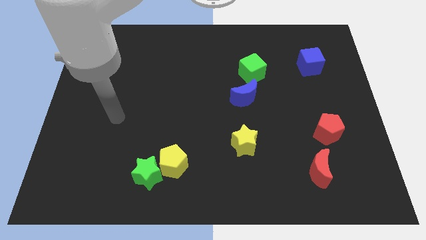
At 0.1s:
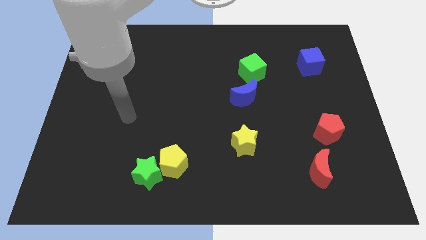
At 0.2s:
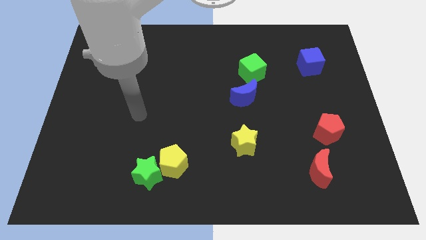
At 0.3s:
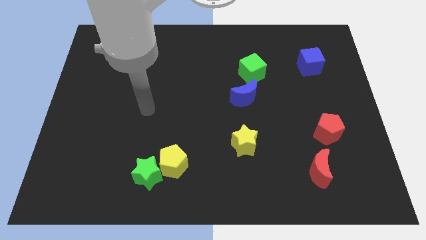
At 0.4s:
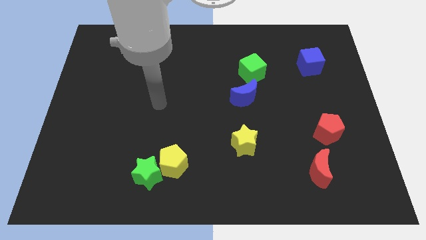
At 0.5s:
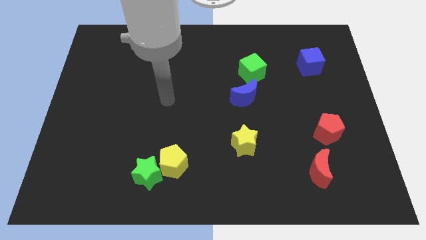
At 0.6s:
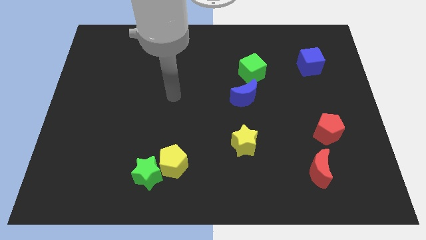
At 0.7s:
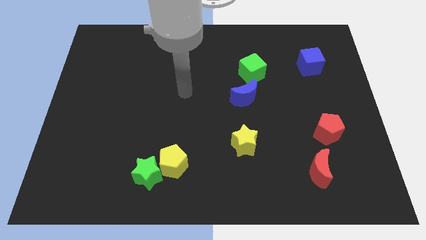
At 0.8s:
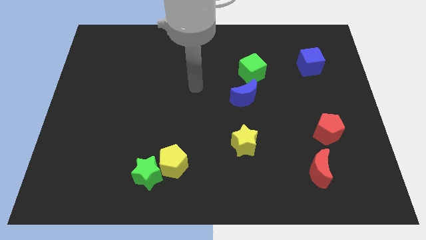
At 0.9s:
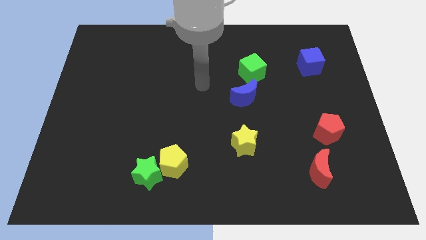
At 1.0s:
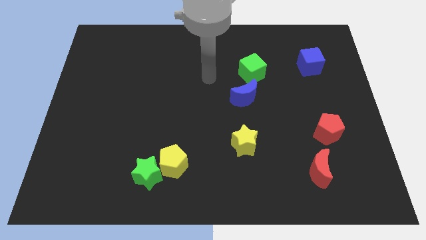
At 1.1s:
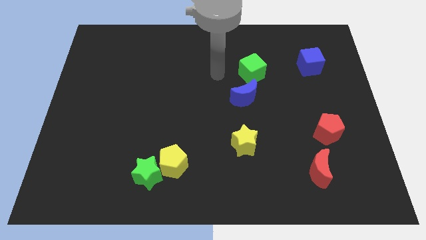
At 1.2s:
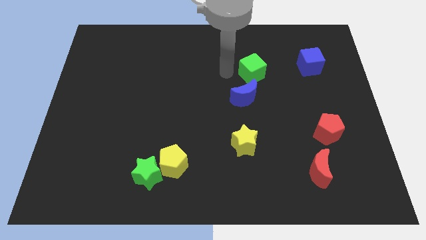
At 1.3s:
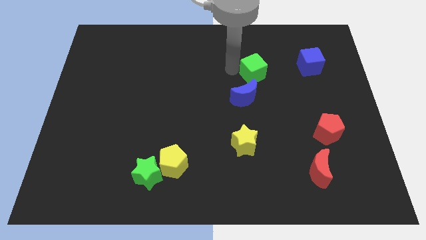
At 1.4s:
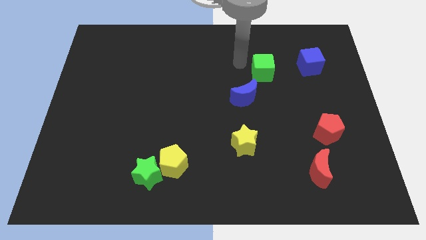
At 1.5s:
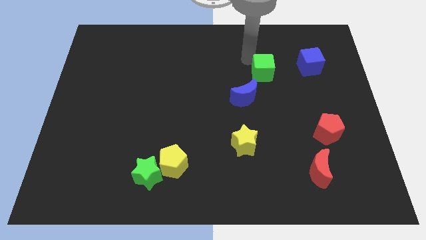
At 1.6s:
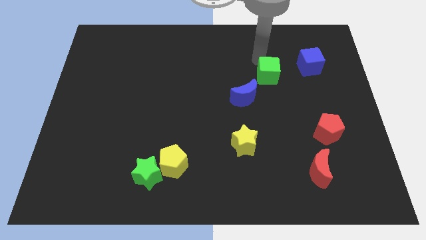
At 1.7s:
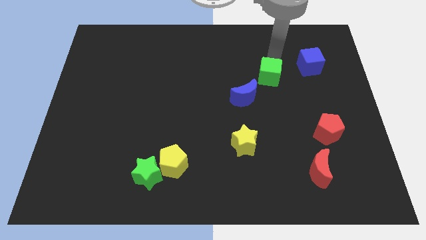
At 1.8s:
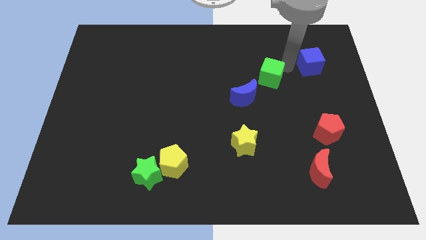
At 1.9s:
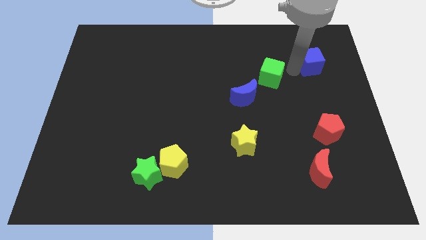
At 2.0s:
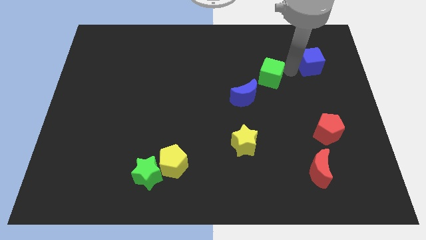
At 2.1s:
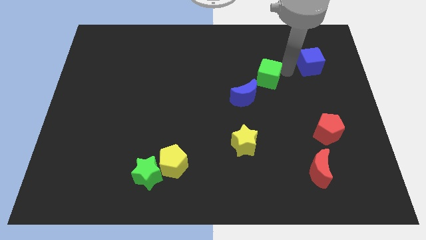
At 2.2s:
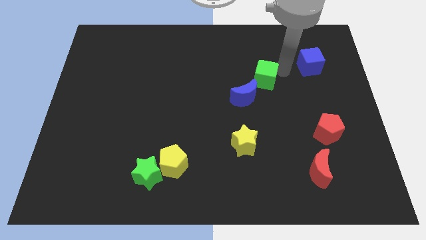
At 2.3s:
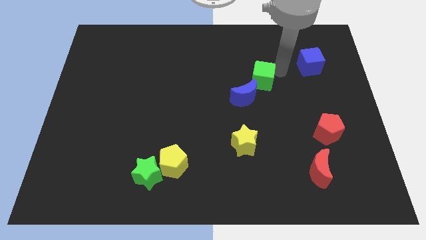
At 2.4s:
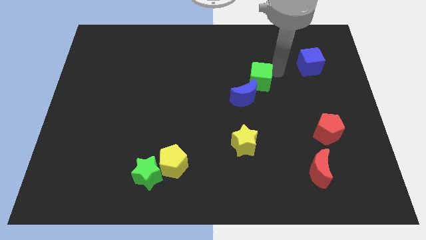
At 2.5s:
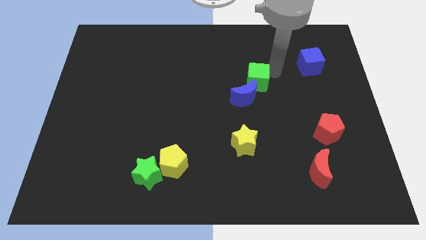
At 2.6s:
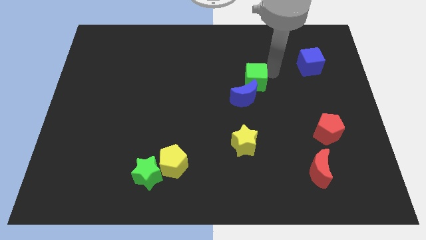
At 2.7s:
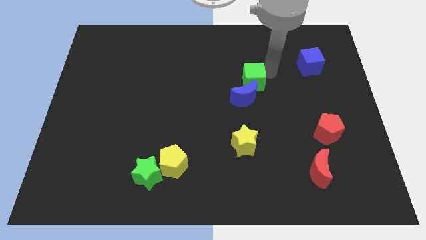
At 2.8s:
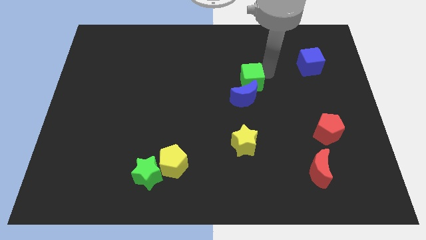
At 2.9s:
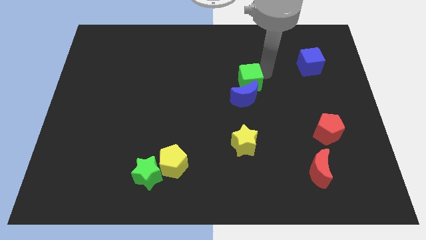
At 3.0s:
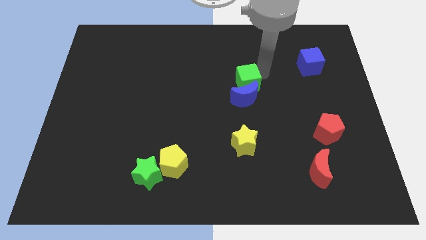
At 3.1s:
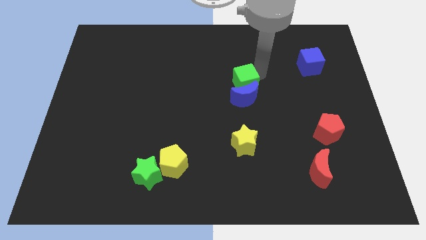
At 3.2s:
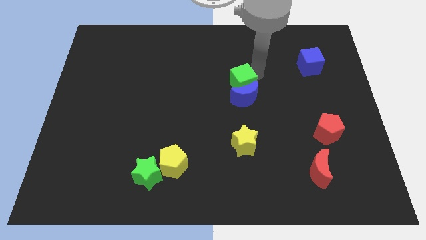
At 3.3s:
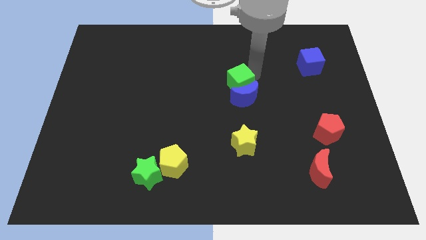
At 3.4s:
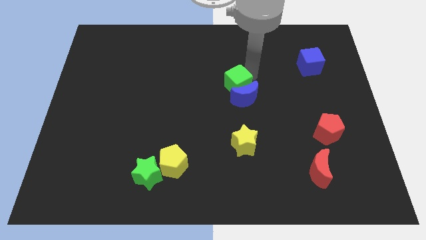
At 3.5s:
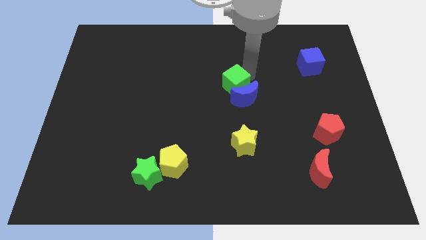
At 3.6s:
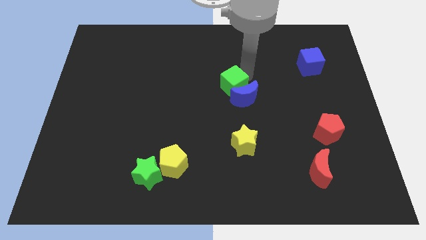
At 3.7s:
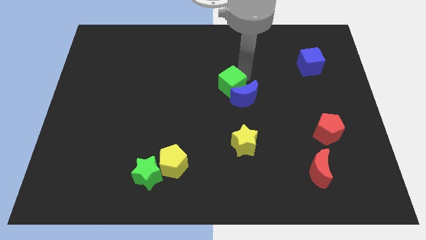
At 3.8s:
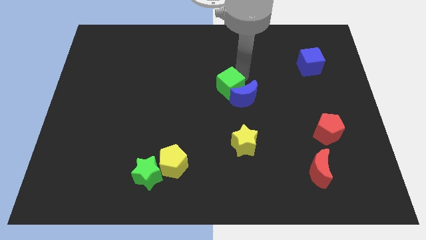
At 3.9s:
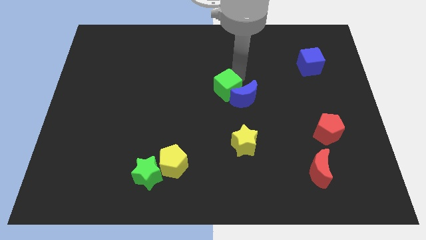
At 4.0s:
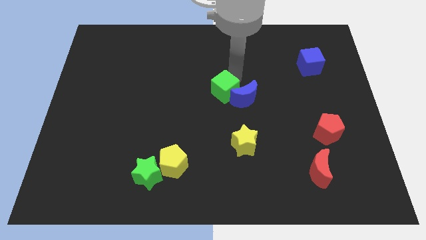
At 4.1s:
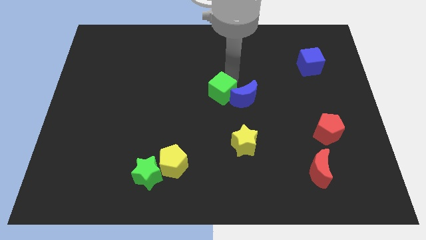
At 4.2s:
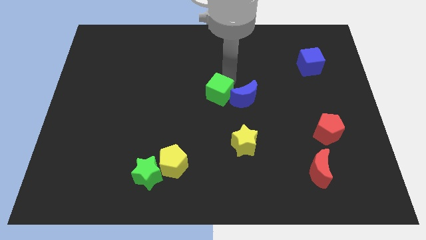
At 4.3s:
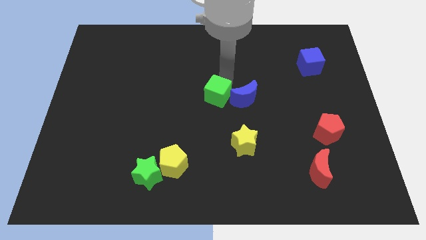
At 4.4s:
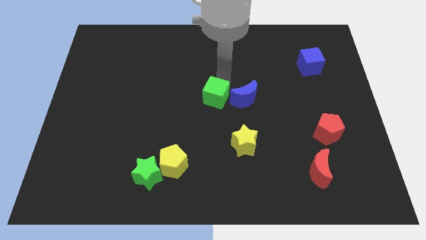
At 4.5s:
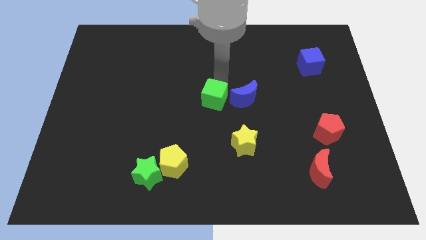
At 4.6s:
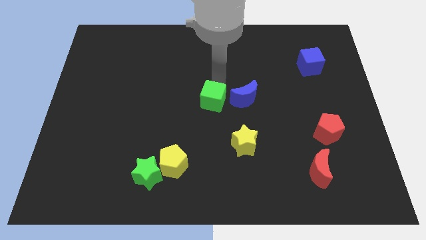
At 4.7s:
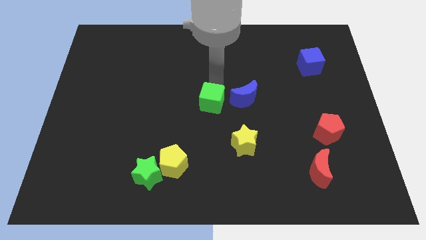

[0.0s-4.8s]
slide the green cube diagonally down and to the left of the blue moon

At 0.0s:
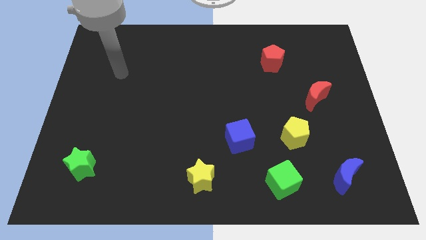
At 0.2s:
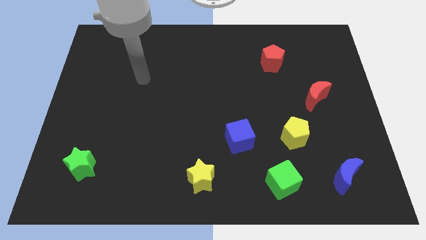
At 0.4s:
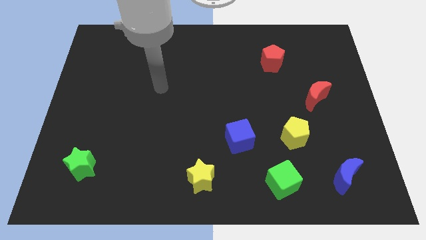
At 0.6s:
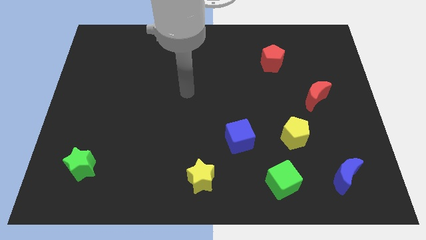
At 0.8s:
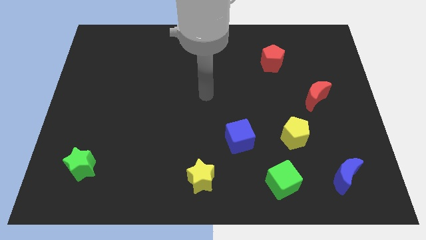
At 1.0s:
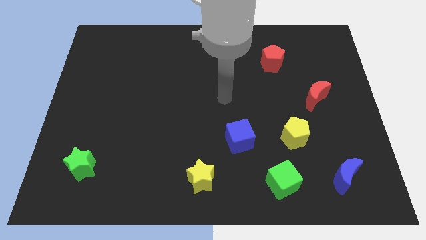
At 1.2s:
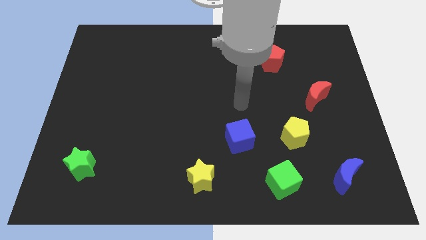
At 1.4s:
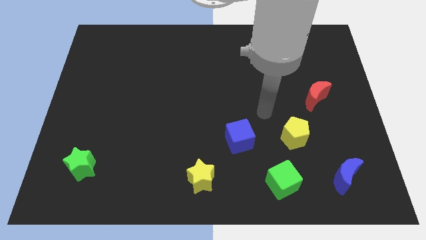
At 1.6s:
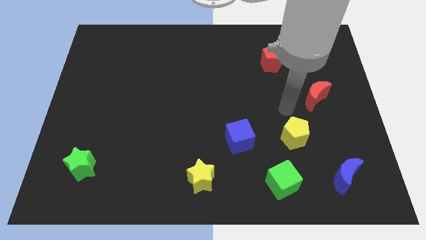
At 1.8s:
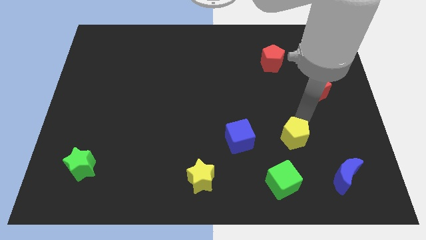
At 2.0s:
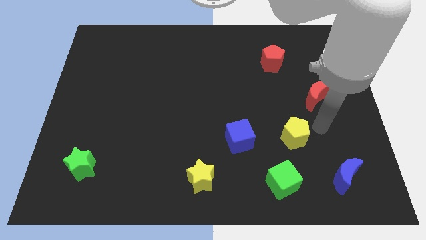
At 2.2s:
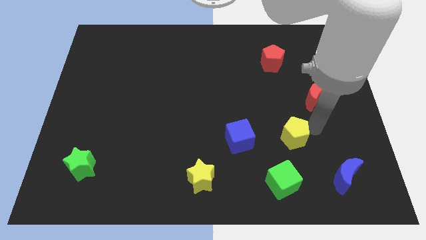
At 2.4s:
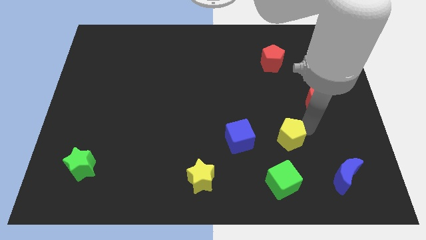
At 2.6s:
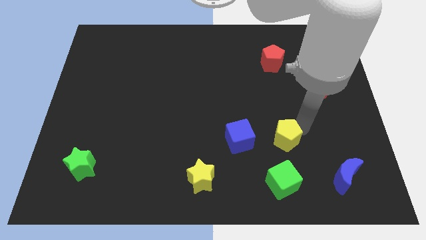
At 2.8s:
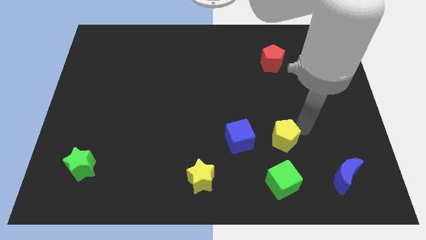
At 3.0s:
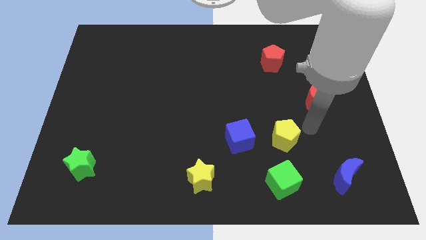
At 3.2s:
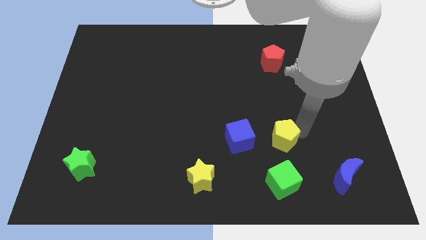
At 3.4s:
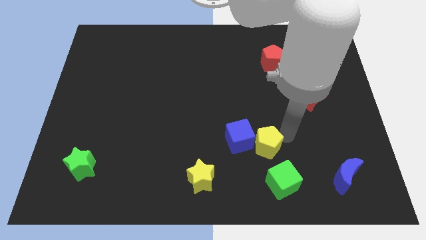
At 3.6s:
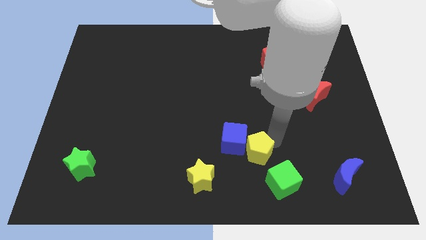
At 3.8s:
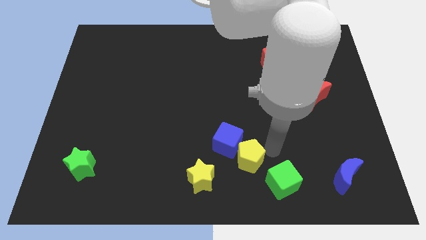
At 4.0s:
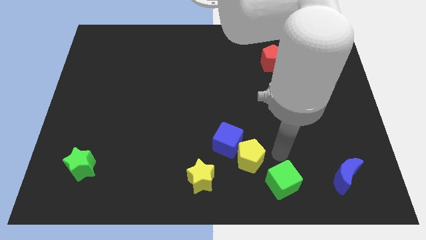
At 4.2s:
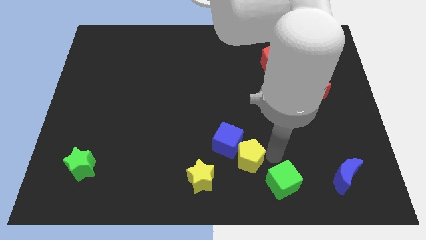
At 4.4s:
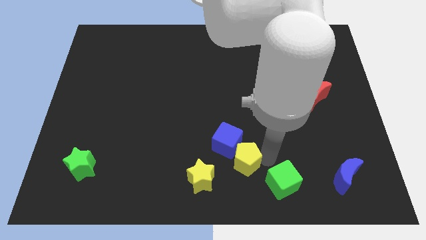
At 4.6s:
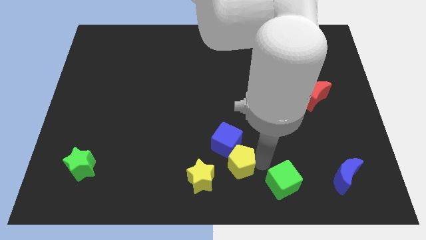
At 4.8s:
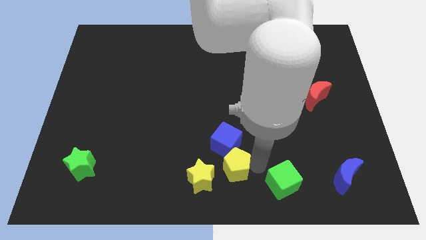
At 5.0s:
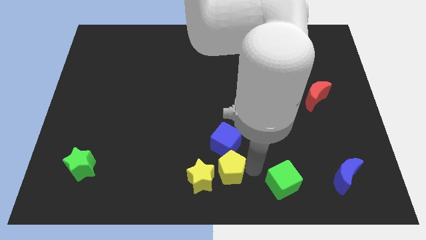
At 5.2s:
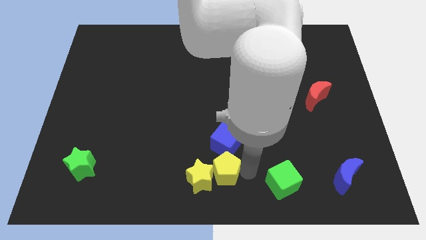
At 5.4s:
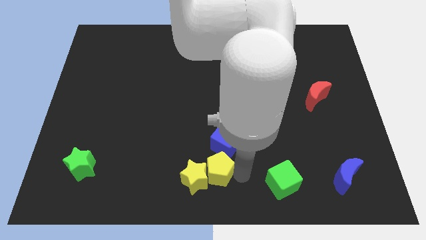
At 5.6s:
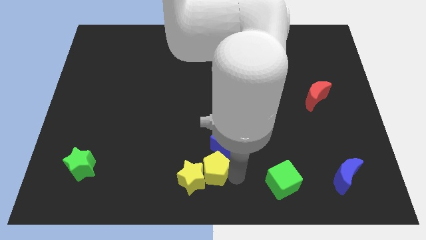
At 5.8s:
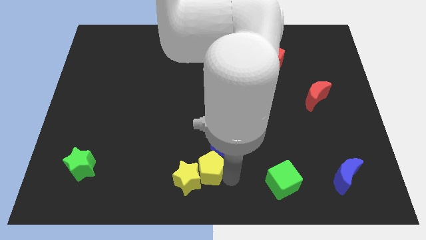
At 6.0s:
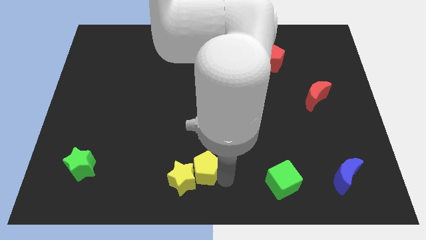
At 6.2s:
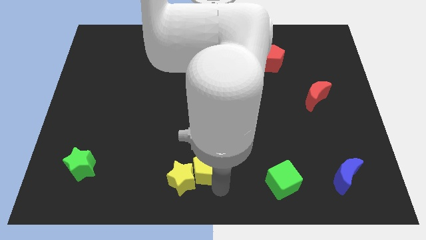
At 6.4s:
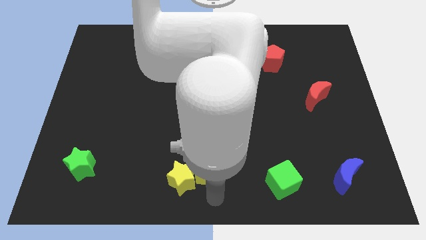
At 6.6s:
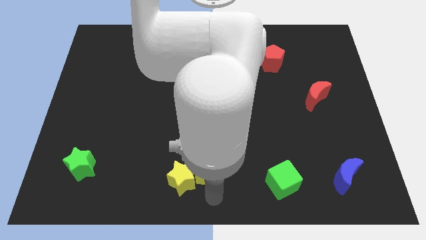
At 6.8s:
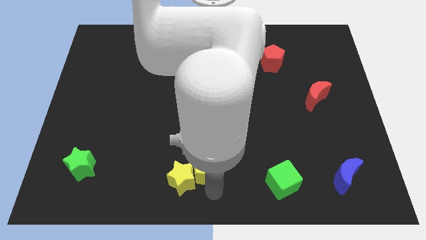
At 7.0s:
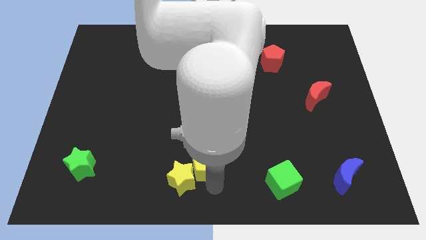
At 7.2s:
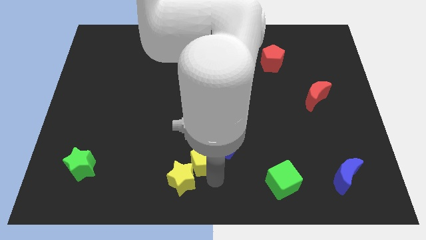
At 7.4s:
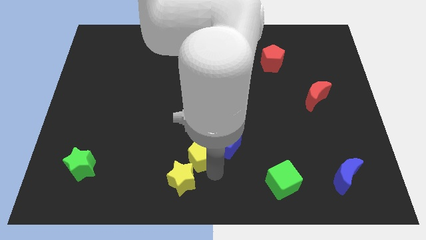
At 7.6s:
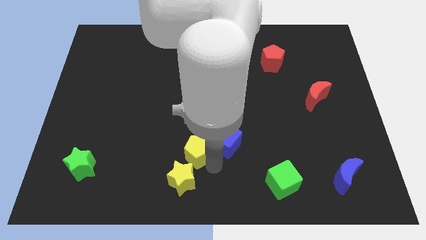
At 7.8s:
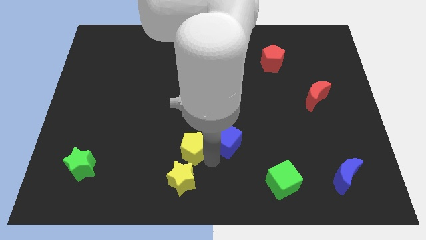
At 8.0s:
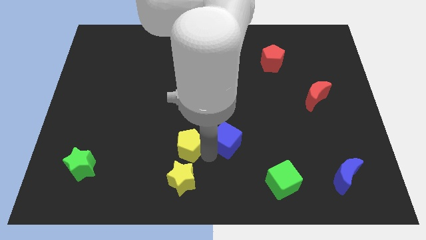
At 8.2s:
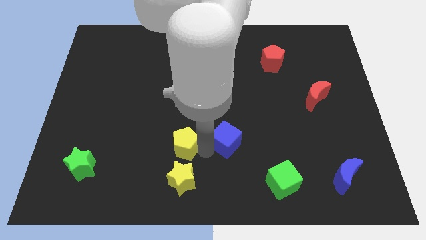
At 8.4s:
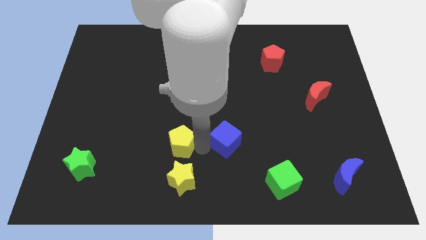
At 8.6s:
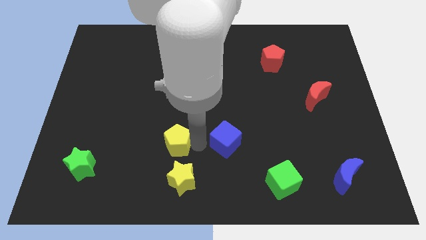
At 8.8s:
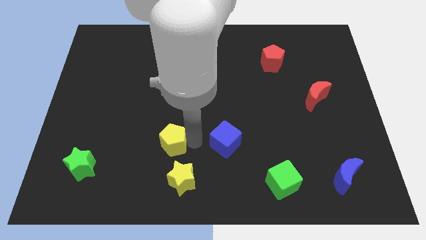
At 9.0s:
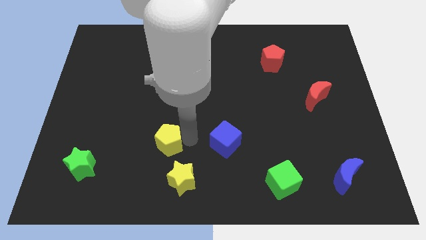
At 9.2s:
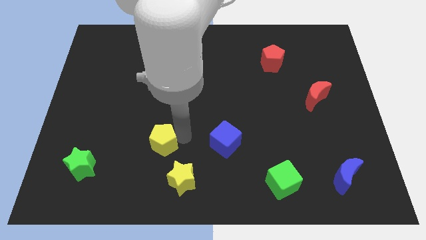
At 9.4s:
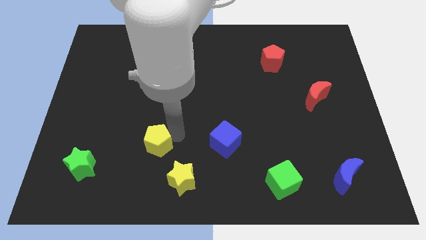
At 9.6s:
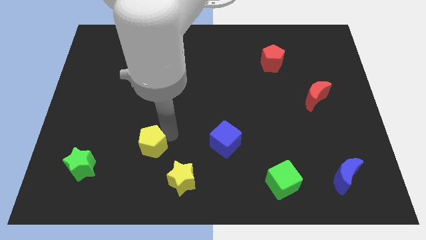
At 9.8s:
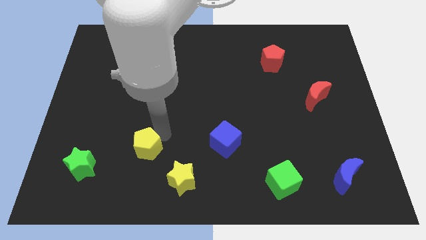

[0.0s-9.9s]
move the yellow pentagon to the right side of the green star
